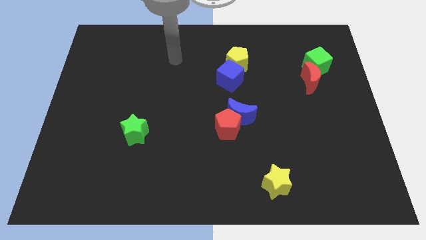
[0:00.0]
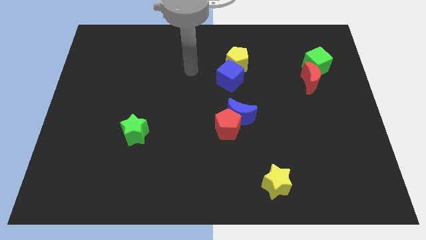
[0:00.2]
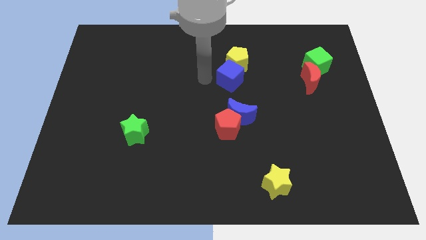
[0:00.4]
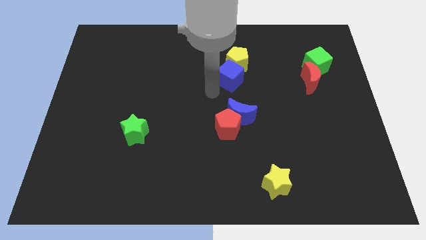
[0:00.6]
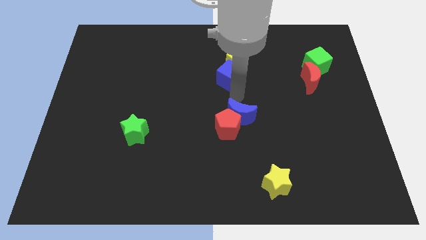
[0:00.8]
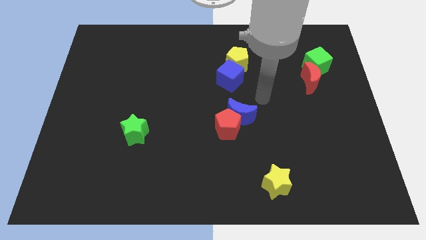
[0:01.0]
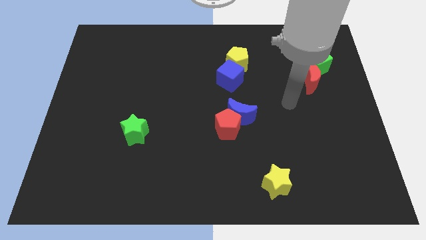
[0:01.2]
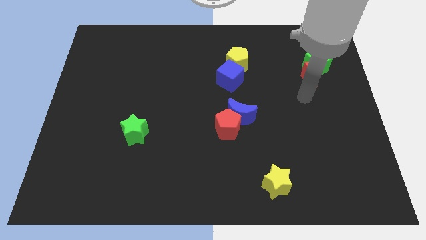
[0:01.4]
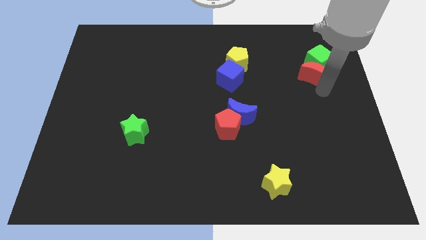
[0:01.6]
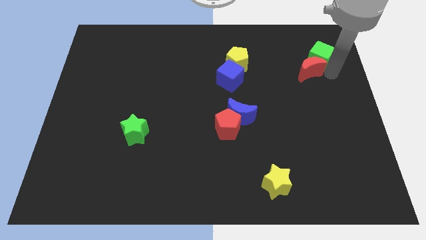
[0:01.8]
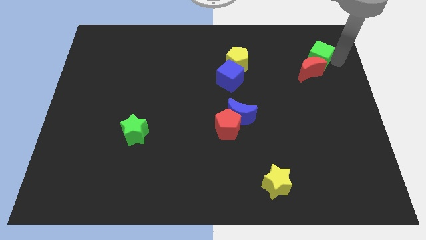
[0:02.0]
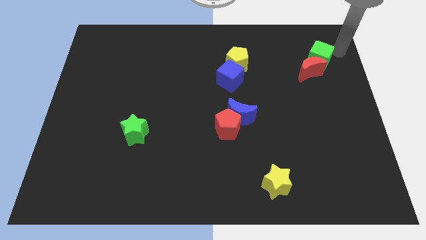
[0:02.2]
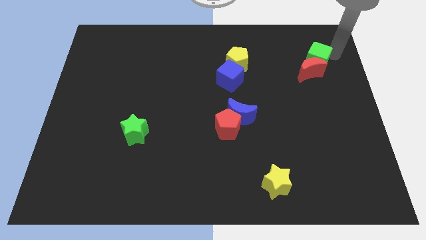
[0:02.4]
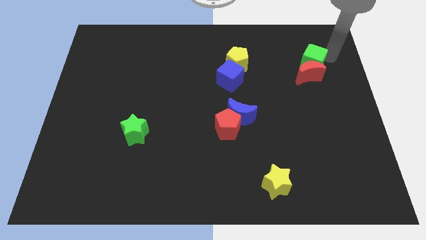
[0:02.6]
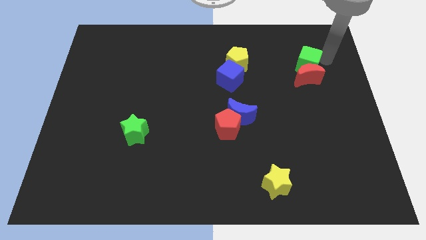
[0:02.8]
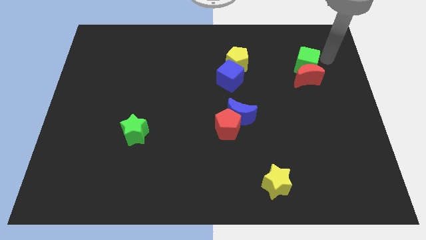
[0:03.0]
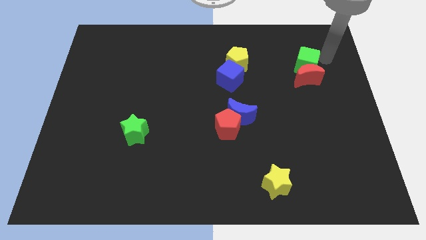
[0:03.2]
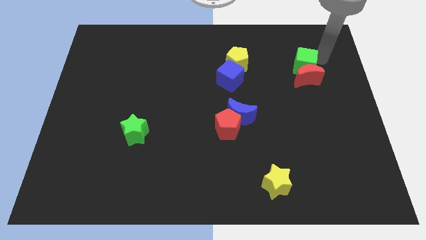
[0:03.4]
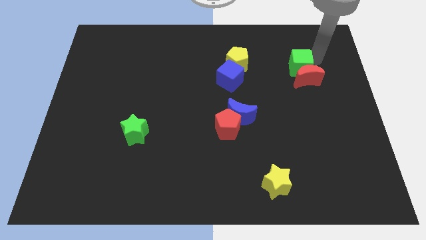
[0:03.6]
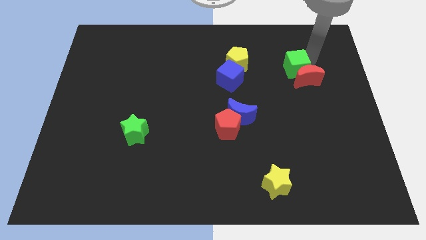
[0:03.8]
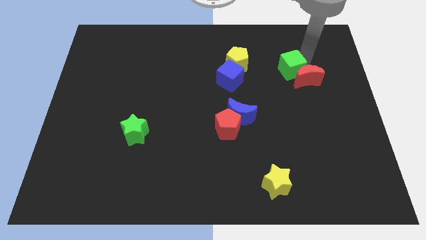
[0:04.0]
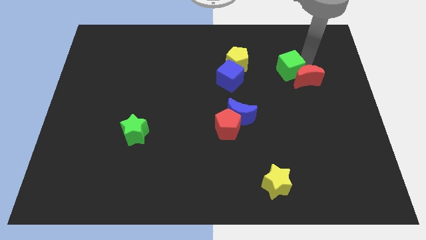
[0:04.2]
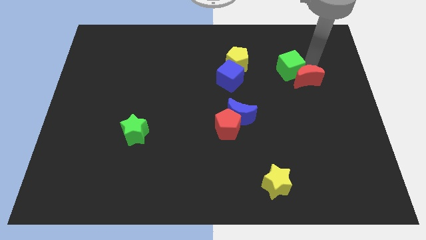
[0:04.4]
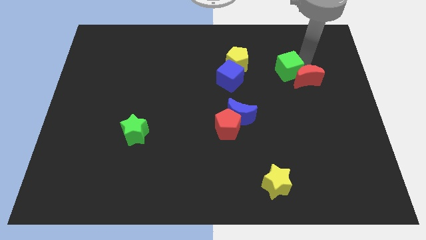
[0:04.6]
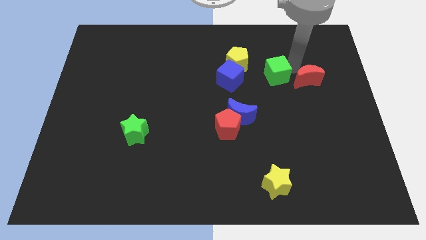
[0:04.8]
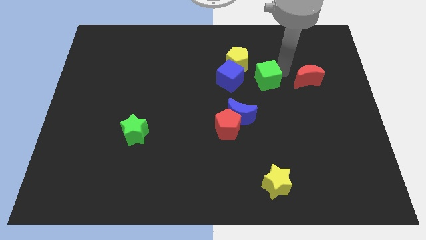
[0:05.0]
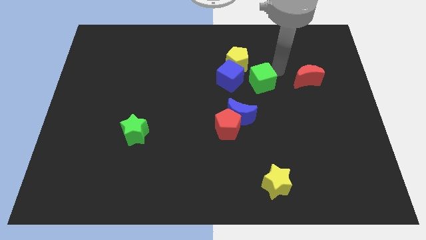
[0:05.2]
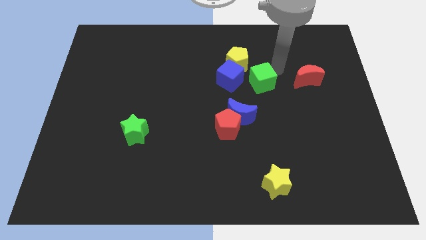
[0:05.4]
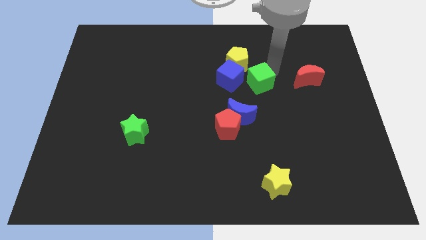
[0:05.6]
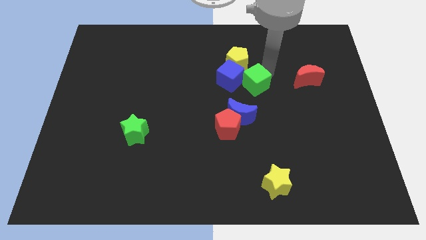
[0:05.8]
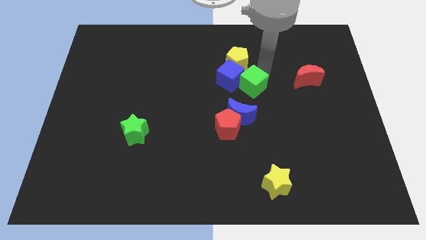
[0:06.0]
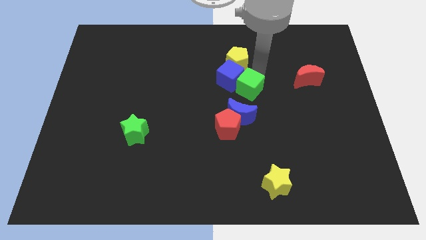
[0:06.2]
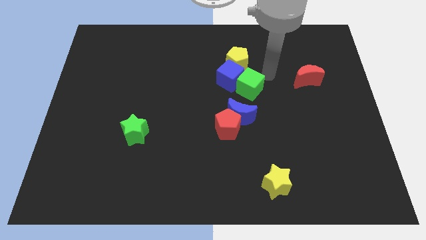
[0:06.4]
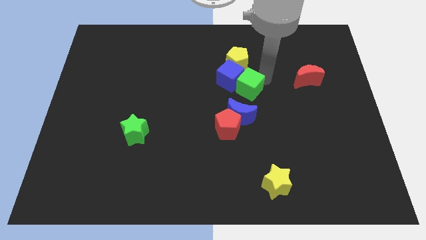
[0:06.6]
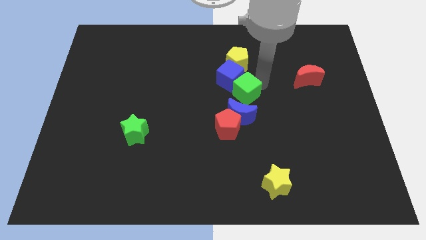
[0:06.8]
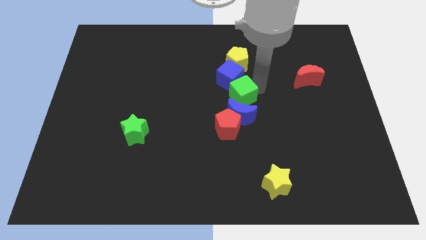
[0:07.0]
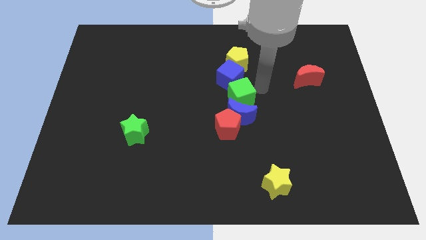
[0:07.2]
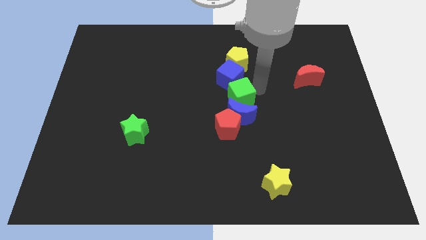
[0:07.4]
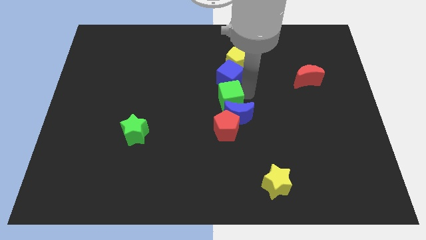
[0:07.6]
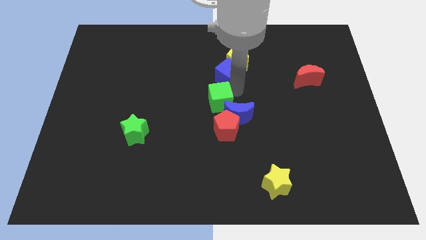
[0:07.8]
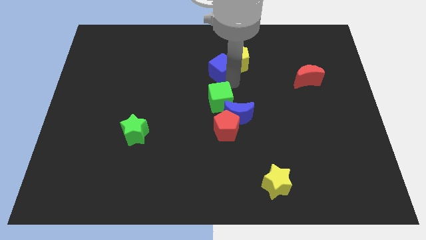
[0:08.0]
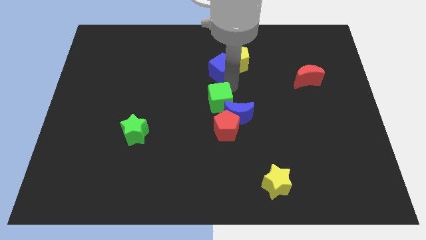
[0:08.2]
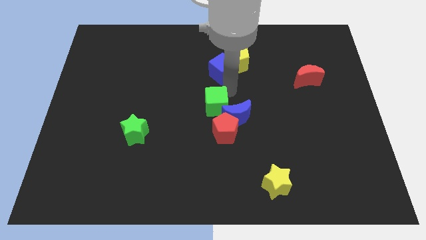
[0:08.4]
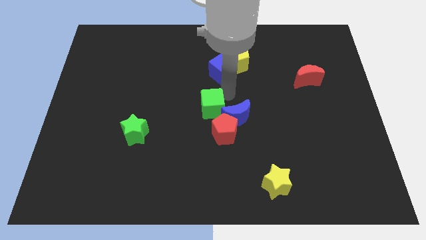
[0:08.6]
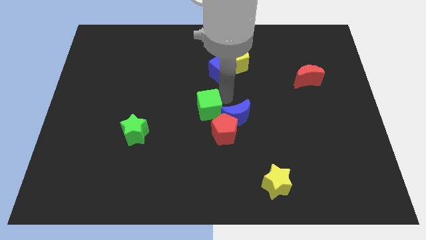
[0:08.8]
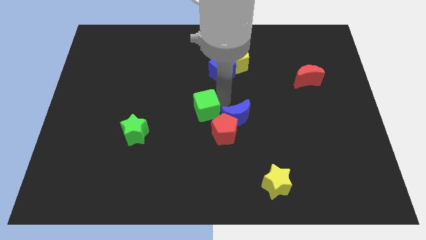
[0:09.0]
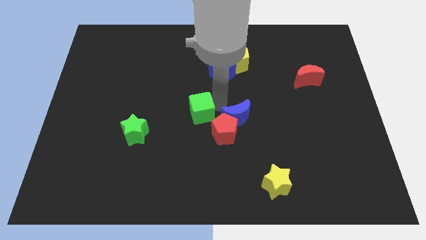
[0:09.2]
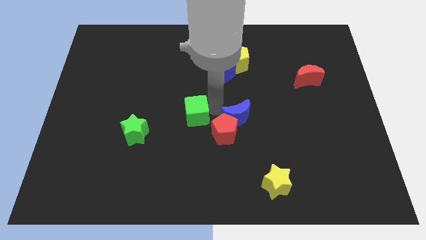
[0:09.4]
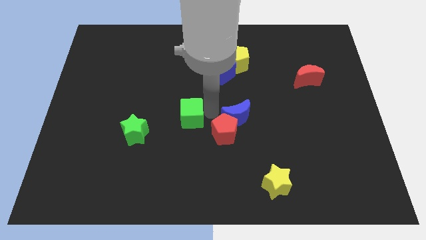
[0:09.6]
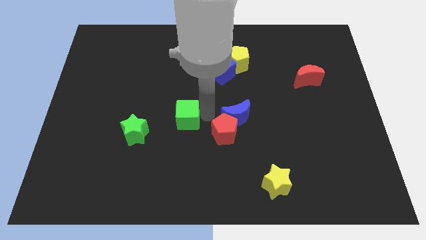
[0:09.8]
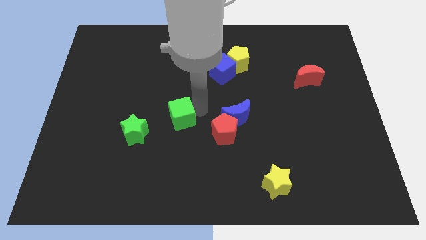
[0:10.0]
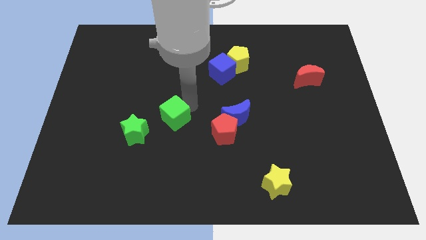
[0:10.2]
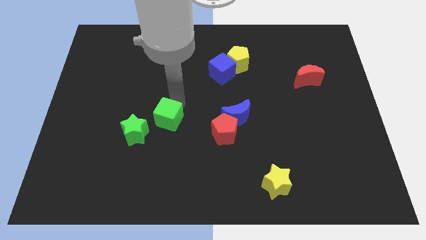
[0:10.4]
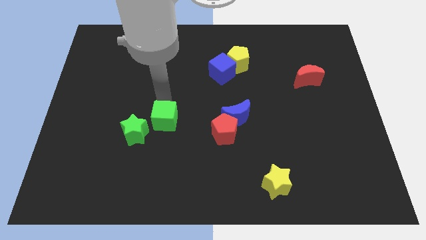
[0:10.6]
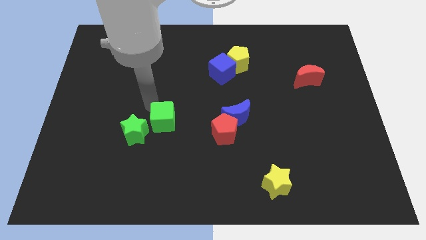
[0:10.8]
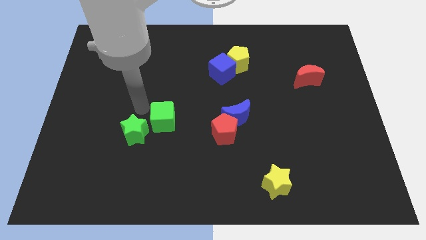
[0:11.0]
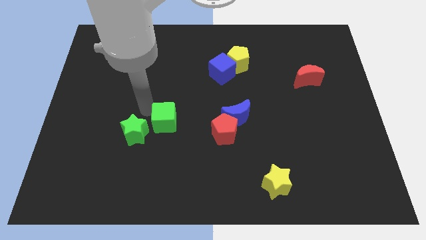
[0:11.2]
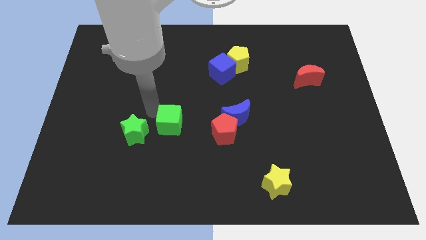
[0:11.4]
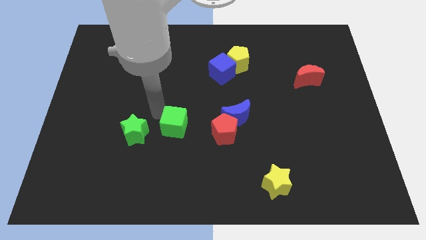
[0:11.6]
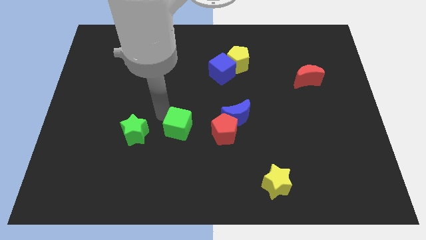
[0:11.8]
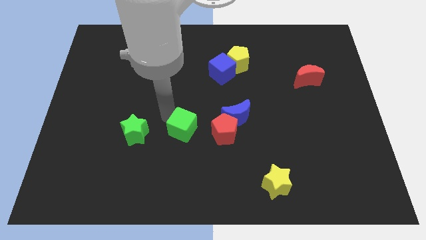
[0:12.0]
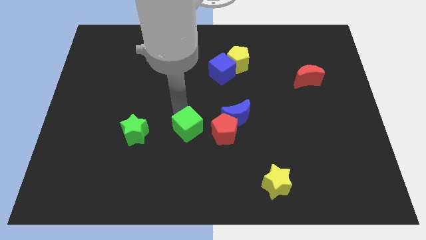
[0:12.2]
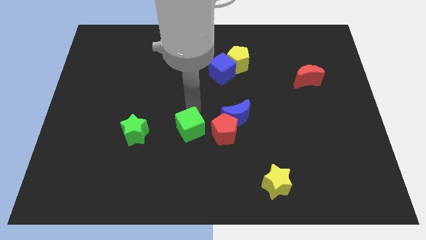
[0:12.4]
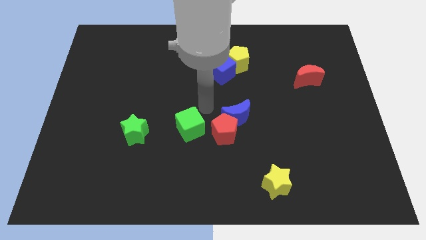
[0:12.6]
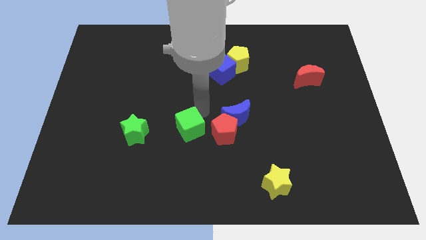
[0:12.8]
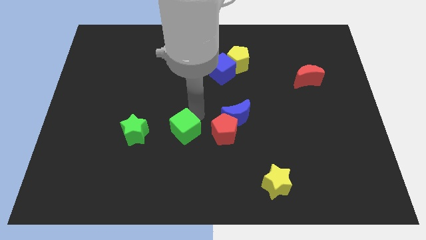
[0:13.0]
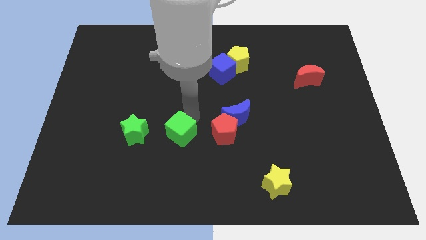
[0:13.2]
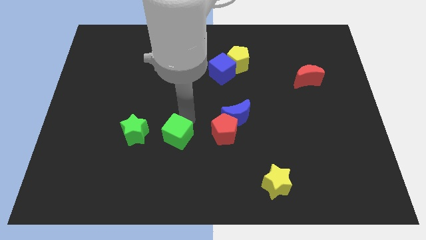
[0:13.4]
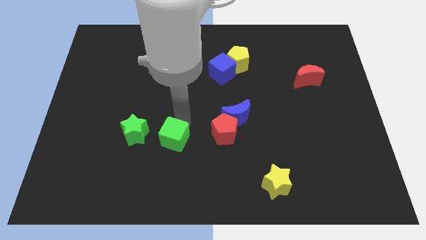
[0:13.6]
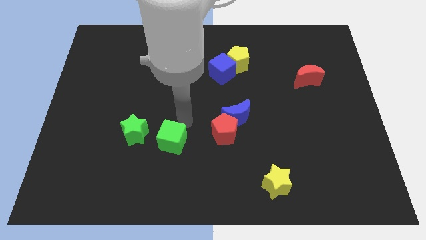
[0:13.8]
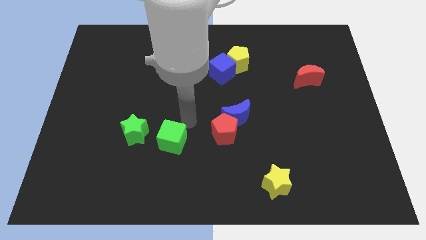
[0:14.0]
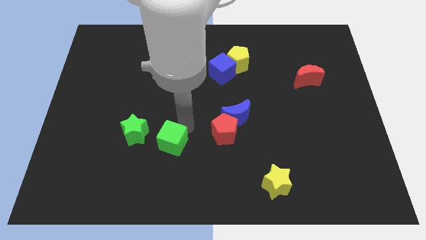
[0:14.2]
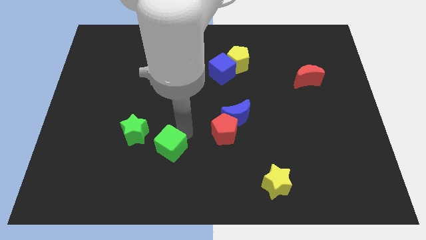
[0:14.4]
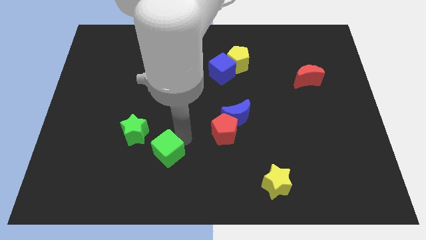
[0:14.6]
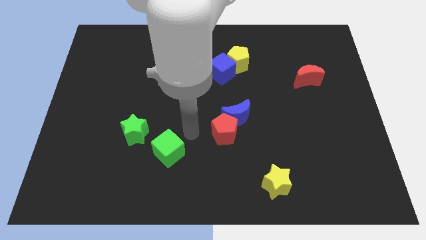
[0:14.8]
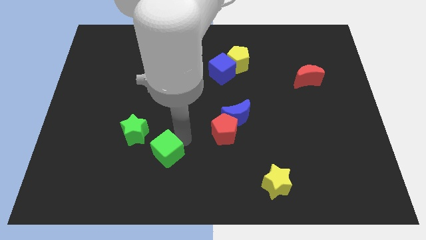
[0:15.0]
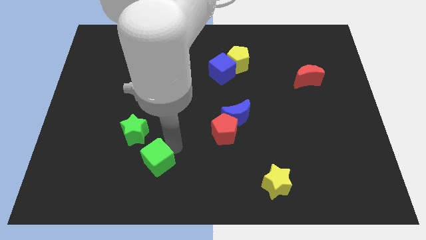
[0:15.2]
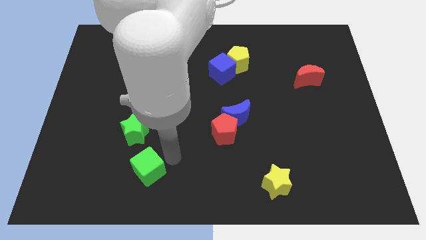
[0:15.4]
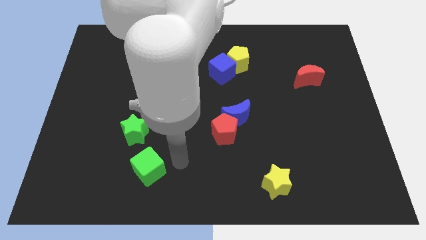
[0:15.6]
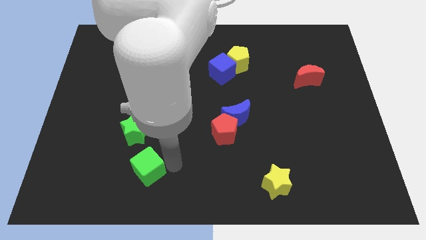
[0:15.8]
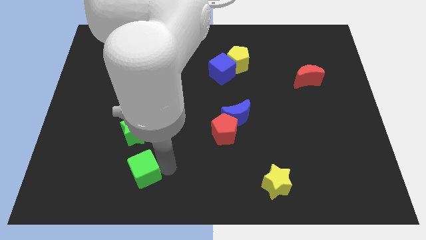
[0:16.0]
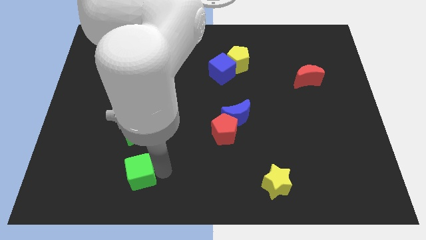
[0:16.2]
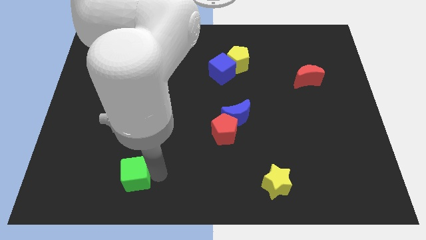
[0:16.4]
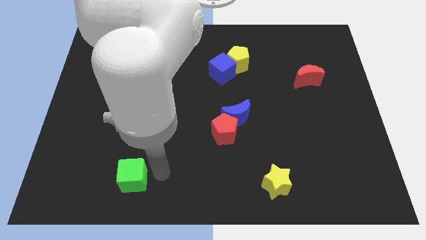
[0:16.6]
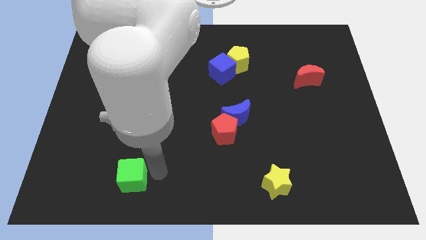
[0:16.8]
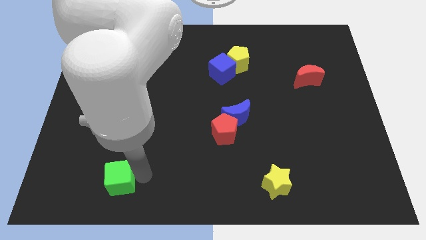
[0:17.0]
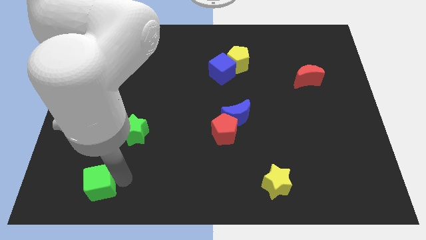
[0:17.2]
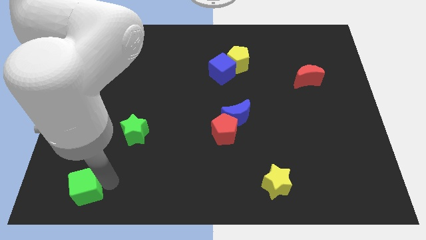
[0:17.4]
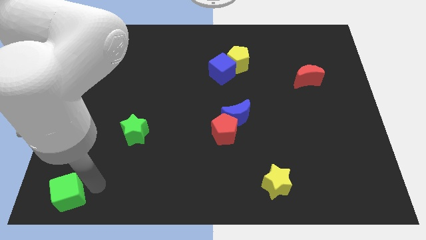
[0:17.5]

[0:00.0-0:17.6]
push the green cube to the lower left corner
